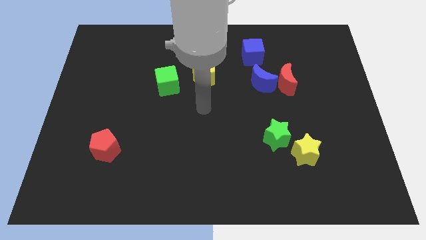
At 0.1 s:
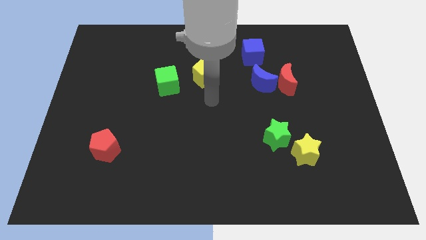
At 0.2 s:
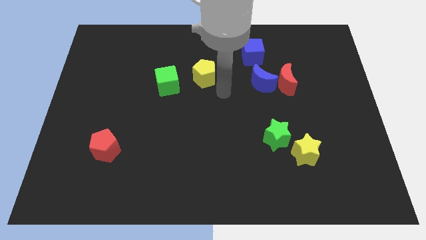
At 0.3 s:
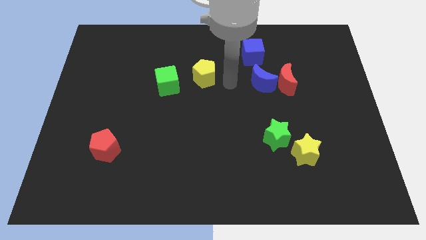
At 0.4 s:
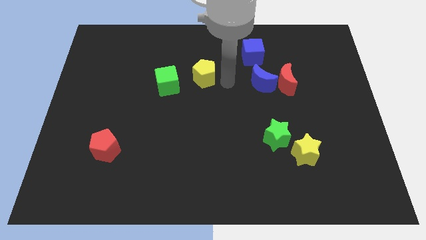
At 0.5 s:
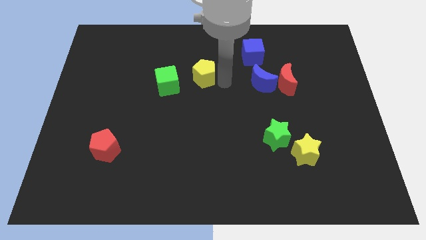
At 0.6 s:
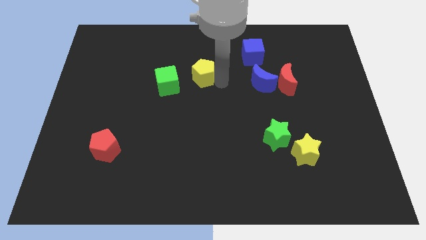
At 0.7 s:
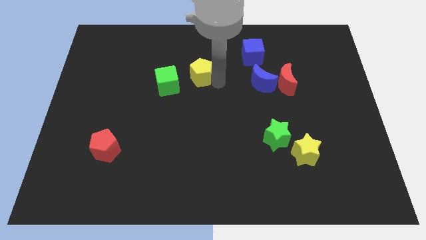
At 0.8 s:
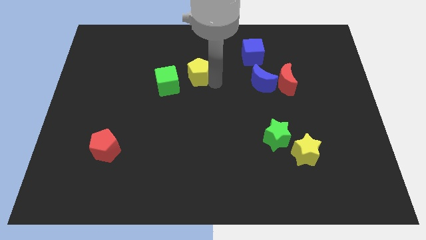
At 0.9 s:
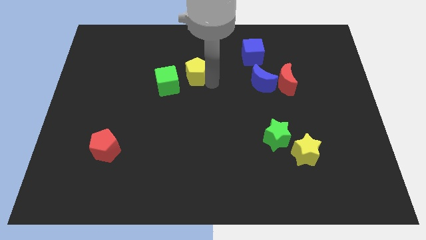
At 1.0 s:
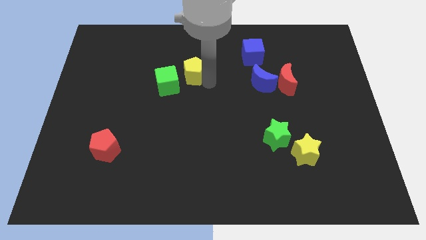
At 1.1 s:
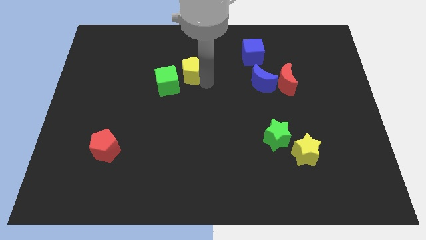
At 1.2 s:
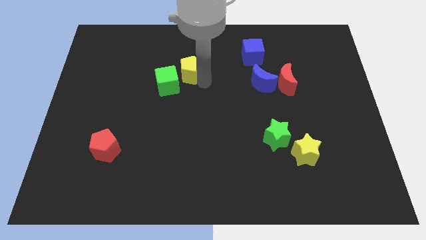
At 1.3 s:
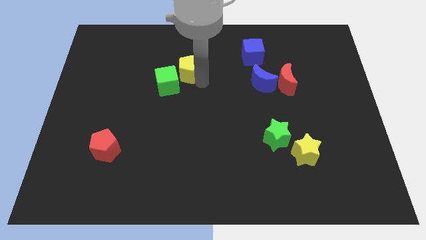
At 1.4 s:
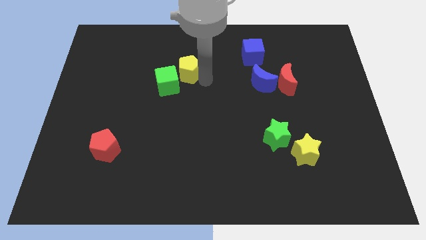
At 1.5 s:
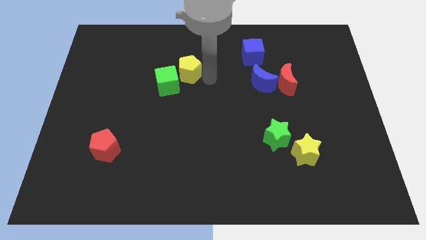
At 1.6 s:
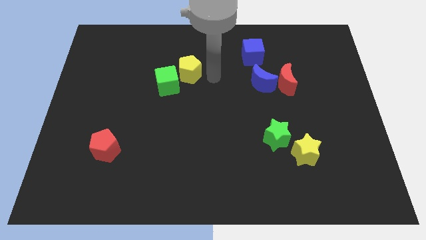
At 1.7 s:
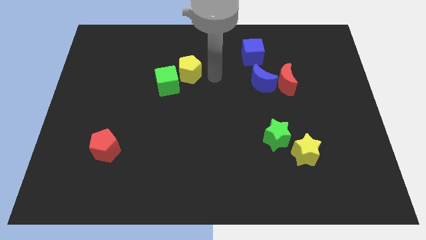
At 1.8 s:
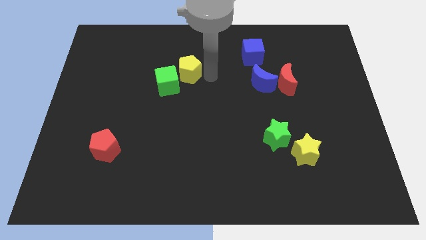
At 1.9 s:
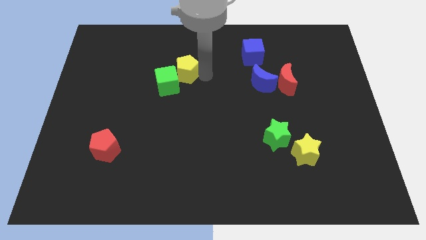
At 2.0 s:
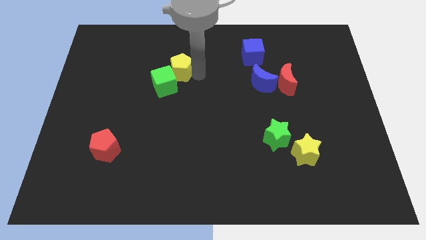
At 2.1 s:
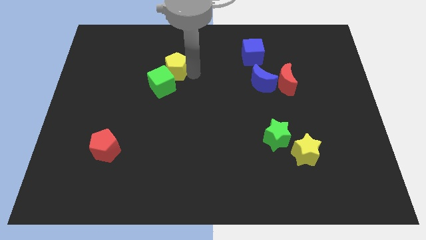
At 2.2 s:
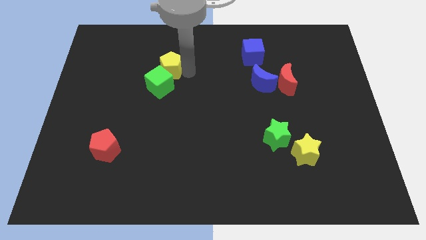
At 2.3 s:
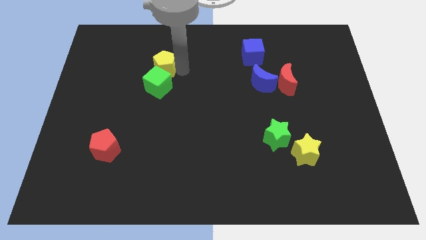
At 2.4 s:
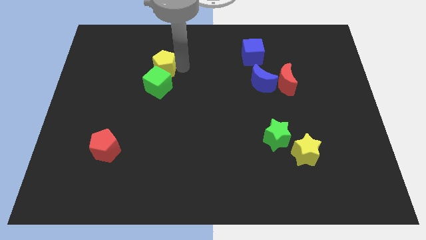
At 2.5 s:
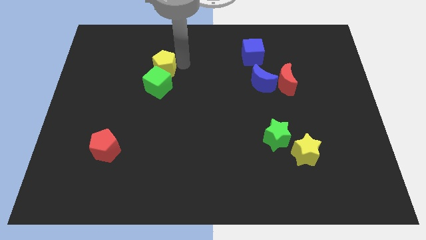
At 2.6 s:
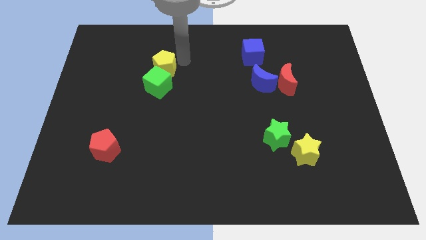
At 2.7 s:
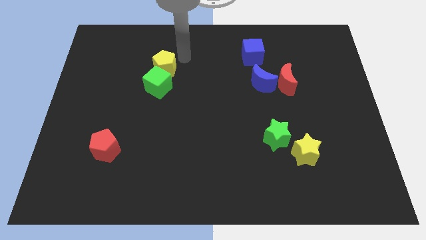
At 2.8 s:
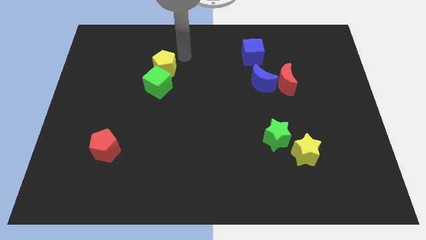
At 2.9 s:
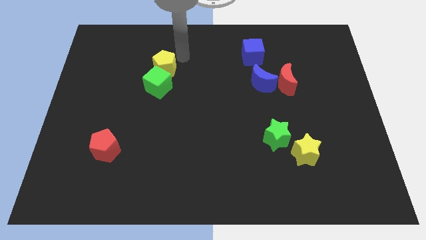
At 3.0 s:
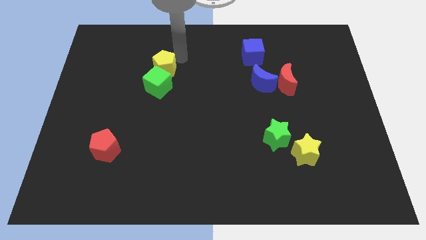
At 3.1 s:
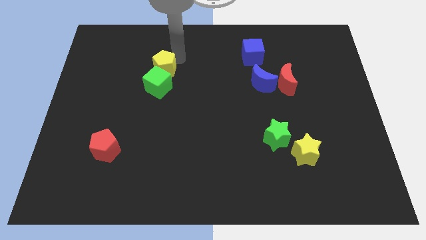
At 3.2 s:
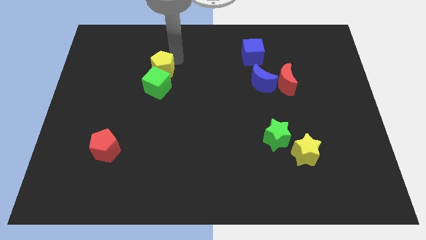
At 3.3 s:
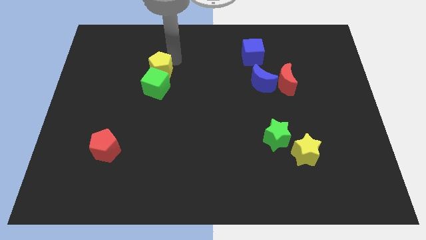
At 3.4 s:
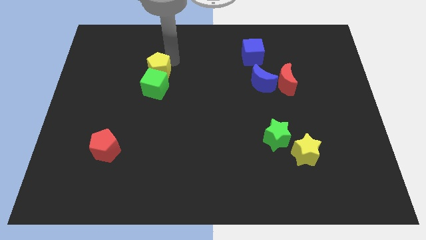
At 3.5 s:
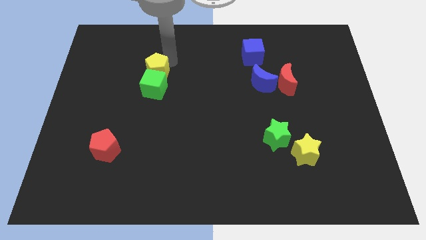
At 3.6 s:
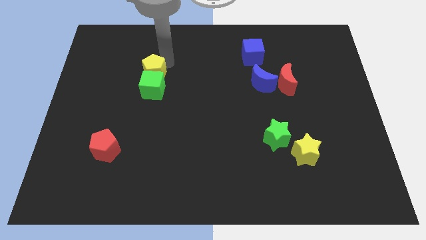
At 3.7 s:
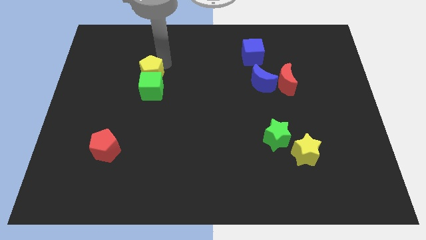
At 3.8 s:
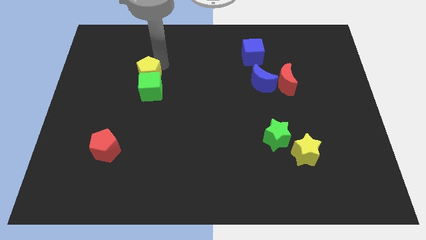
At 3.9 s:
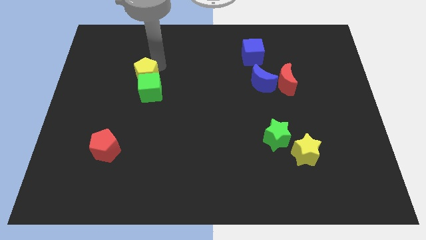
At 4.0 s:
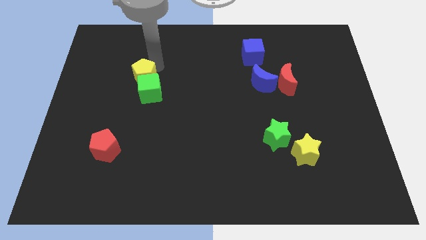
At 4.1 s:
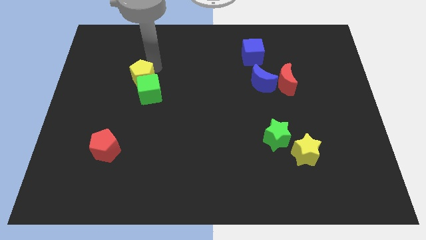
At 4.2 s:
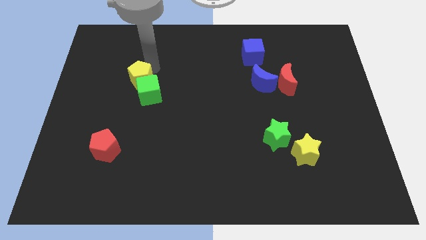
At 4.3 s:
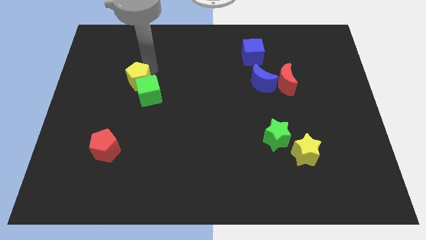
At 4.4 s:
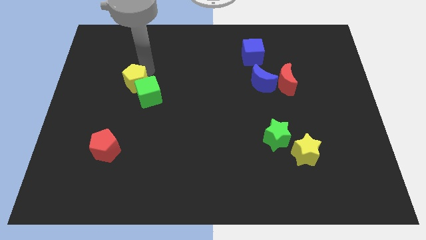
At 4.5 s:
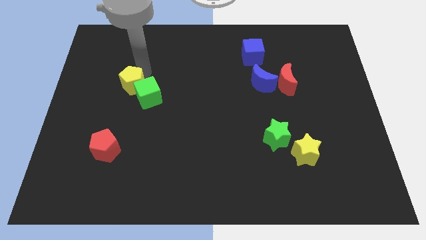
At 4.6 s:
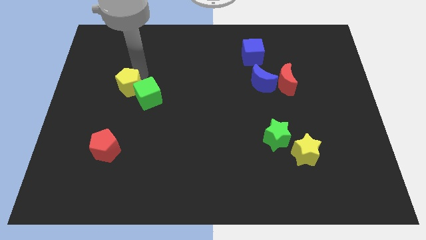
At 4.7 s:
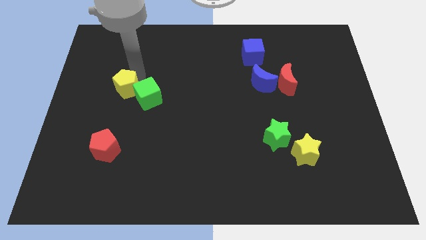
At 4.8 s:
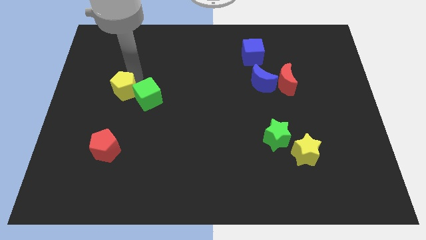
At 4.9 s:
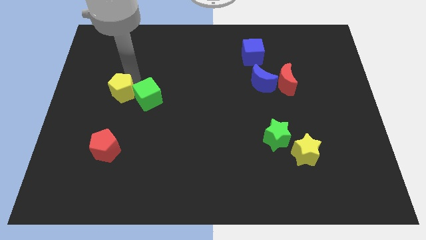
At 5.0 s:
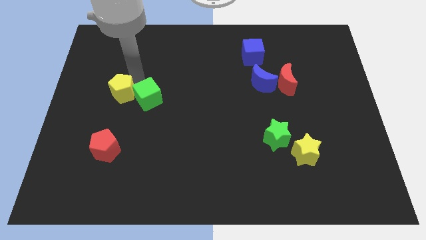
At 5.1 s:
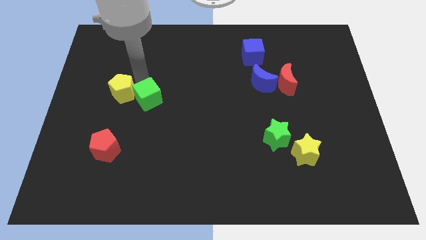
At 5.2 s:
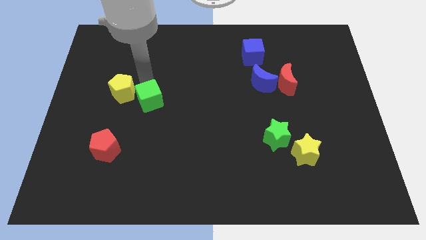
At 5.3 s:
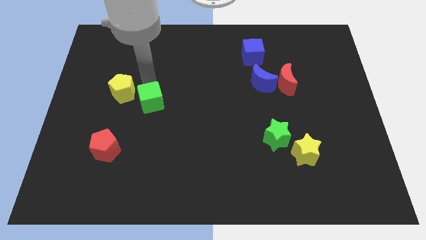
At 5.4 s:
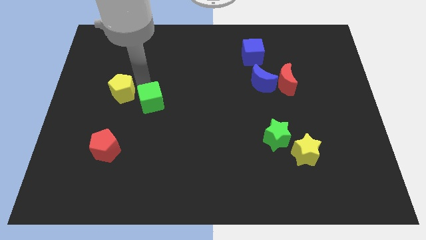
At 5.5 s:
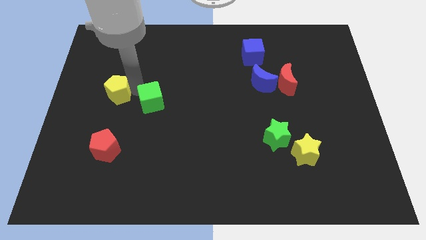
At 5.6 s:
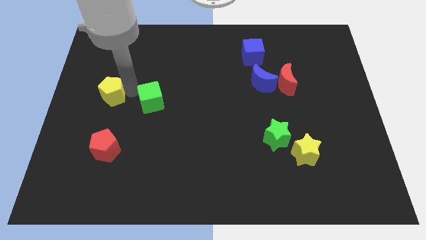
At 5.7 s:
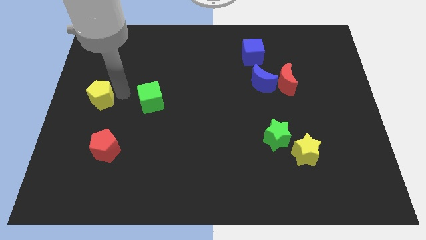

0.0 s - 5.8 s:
put the yellow pentagon to the center left

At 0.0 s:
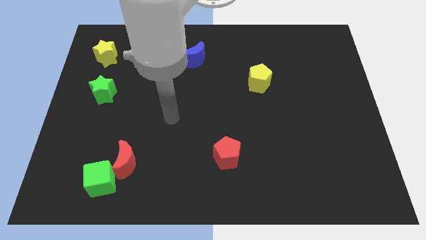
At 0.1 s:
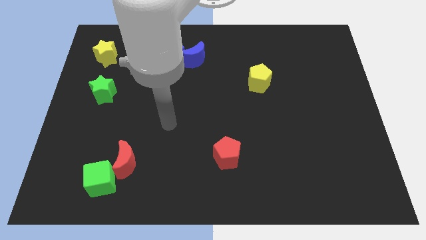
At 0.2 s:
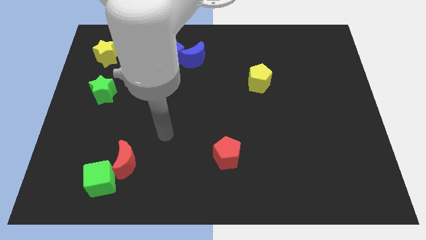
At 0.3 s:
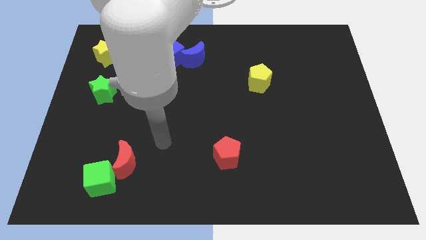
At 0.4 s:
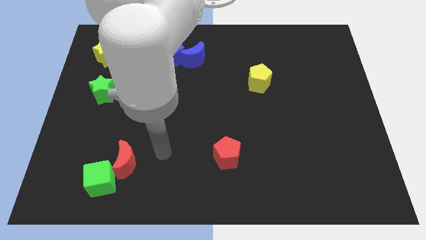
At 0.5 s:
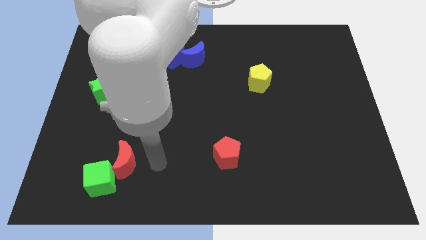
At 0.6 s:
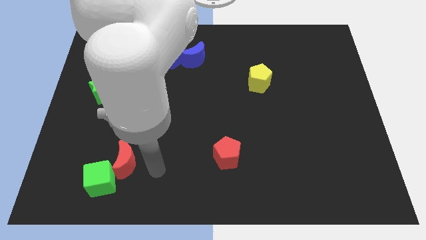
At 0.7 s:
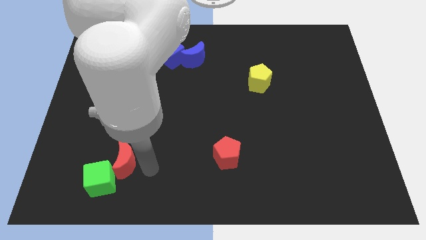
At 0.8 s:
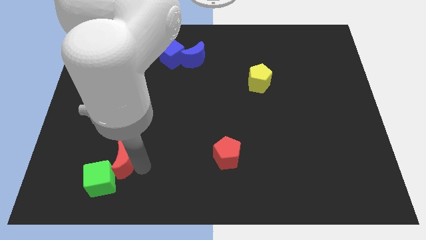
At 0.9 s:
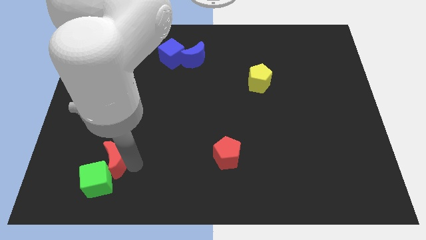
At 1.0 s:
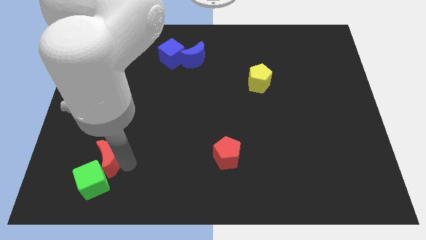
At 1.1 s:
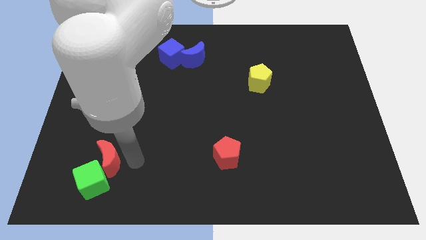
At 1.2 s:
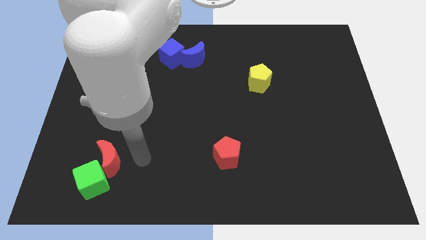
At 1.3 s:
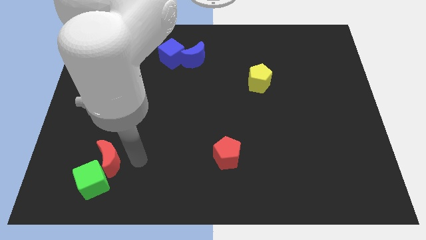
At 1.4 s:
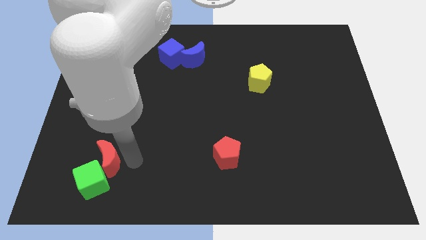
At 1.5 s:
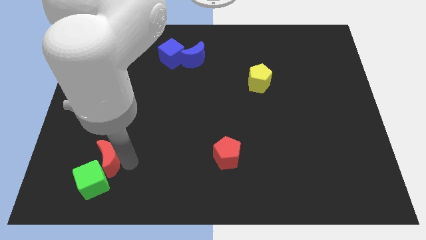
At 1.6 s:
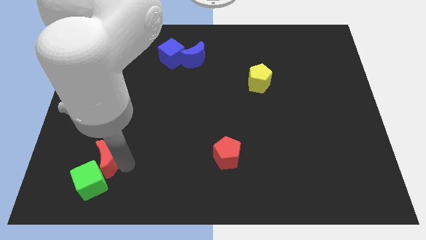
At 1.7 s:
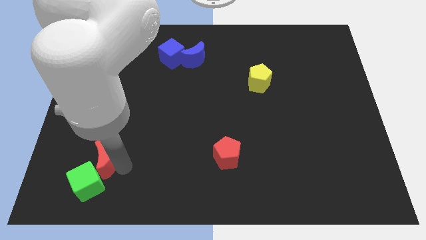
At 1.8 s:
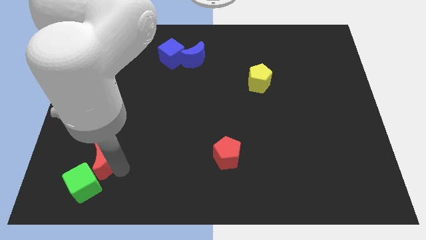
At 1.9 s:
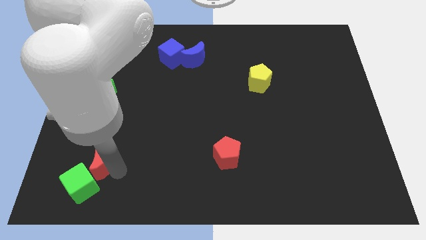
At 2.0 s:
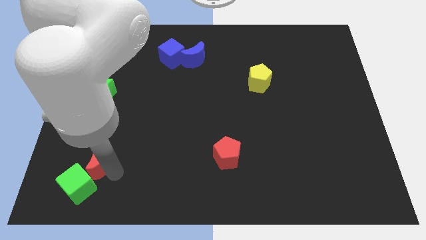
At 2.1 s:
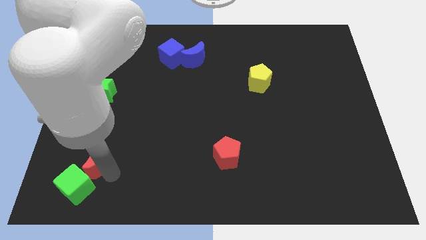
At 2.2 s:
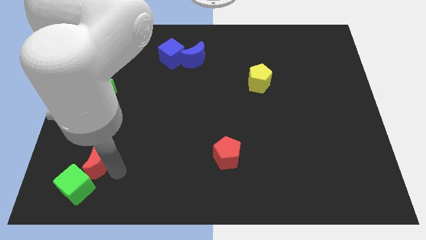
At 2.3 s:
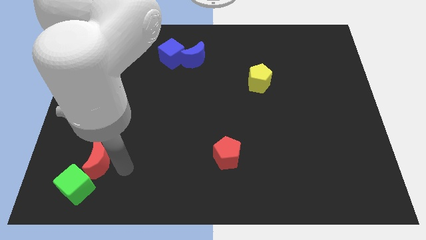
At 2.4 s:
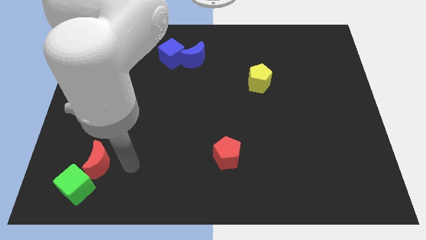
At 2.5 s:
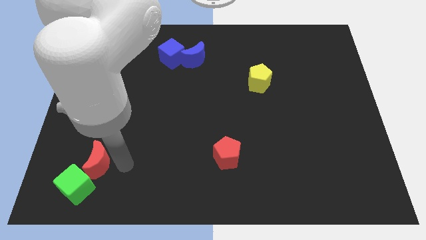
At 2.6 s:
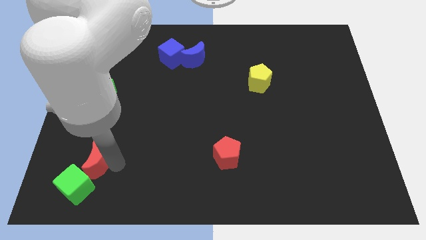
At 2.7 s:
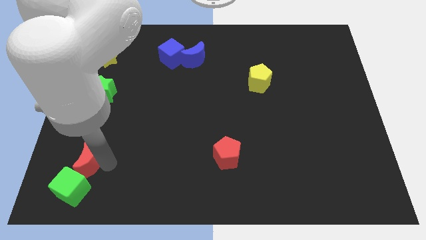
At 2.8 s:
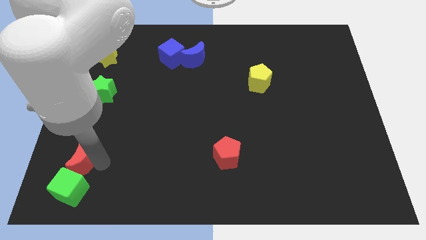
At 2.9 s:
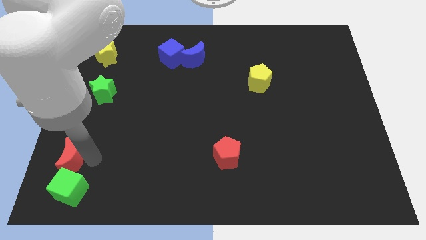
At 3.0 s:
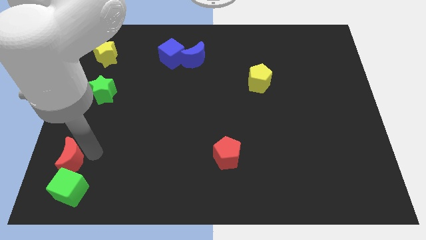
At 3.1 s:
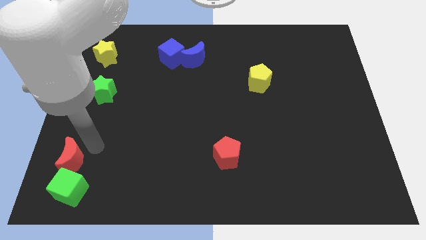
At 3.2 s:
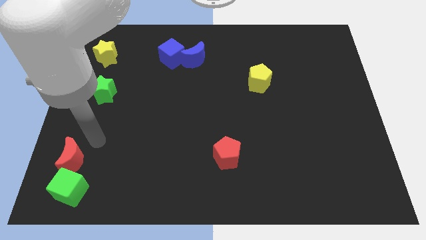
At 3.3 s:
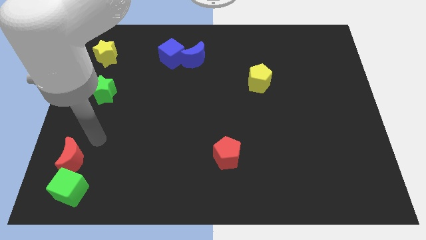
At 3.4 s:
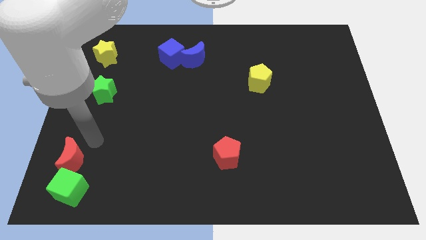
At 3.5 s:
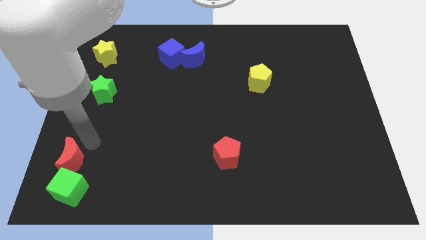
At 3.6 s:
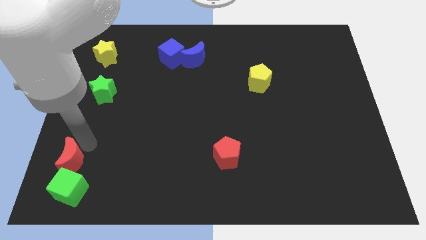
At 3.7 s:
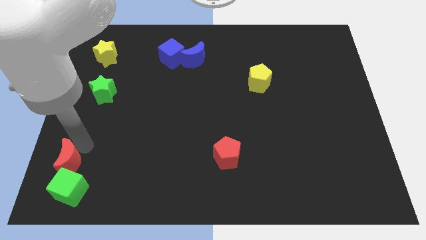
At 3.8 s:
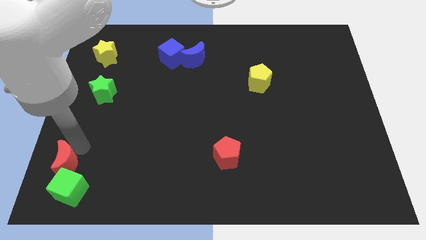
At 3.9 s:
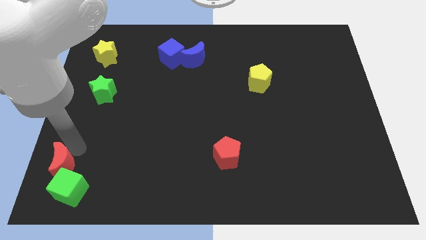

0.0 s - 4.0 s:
move the red moon to the bottom left corner
